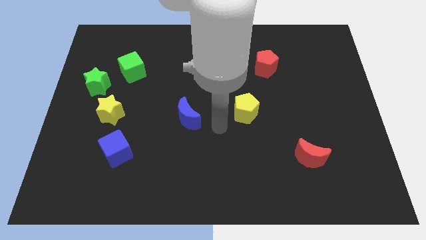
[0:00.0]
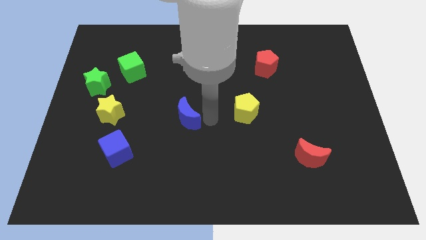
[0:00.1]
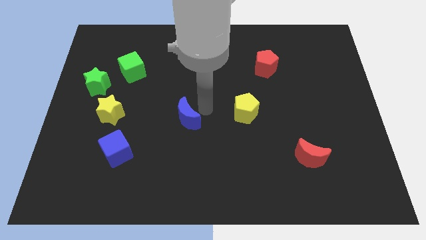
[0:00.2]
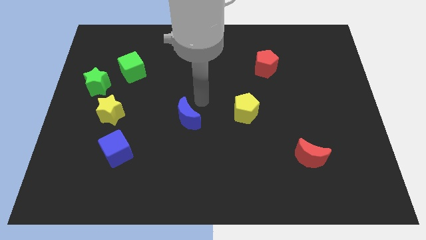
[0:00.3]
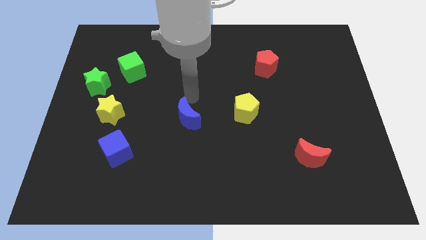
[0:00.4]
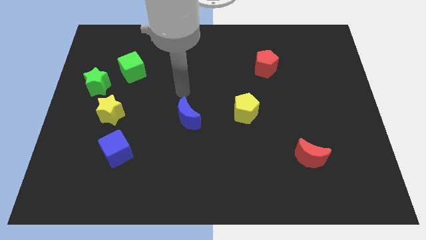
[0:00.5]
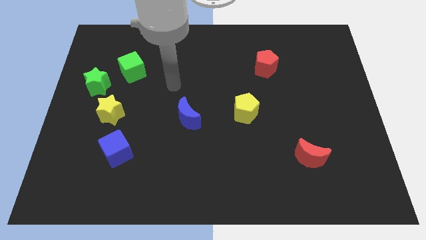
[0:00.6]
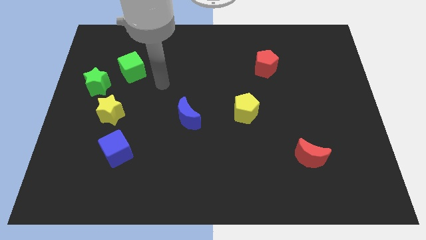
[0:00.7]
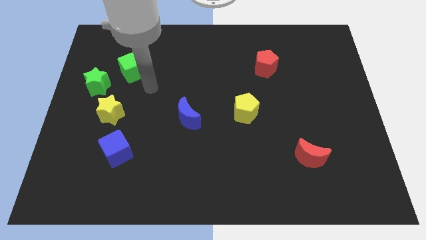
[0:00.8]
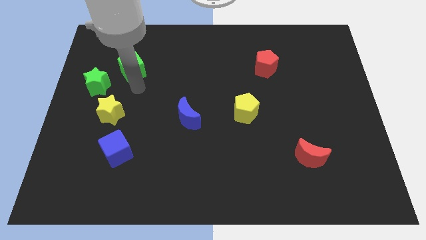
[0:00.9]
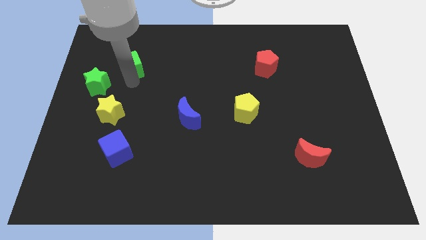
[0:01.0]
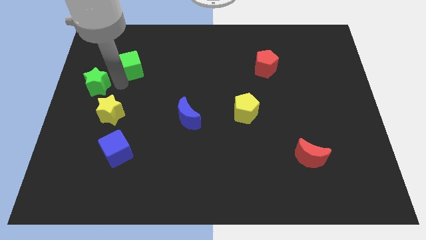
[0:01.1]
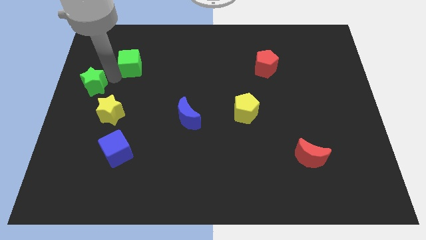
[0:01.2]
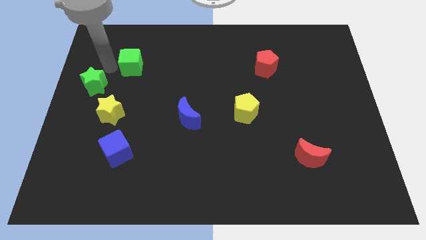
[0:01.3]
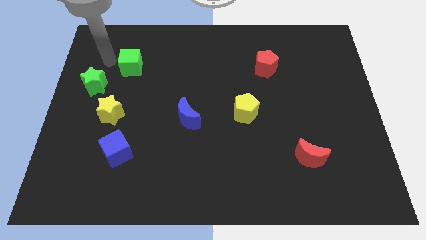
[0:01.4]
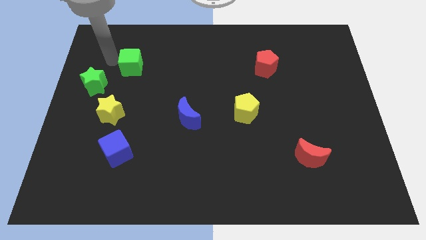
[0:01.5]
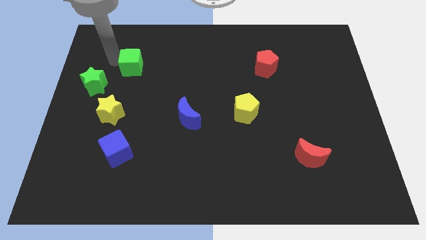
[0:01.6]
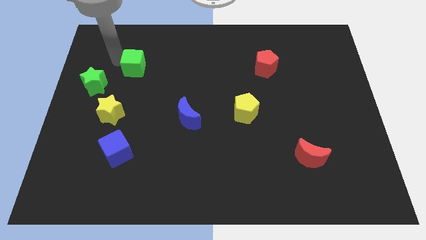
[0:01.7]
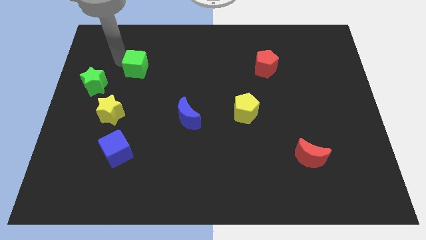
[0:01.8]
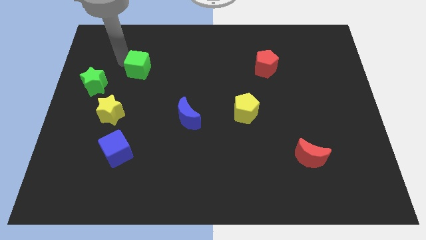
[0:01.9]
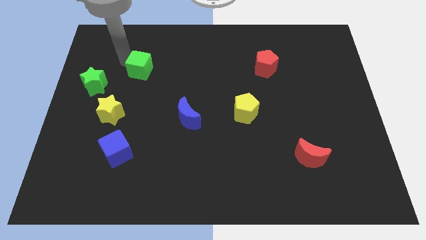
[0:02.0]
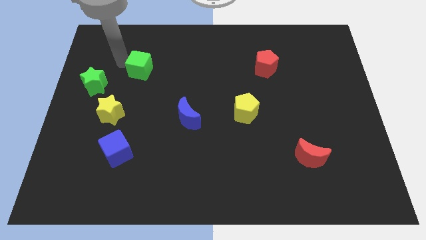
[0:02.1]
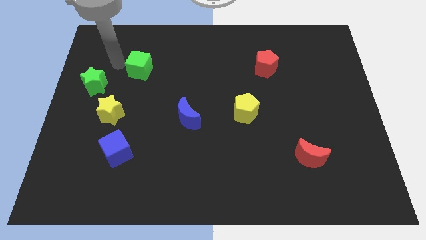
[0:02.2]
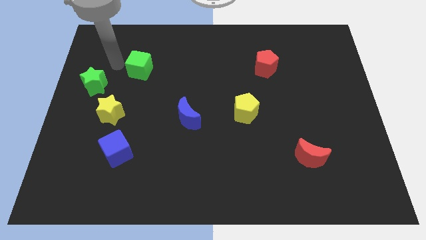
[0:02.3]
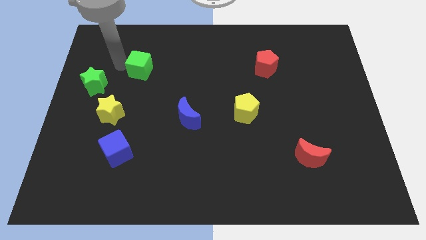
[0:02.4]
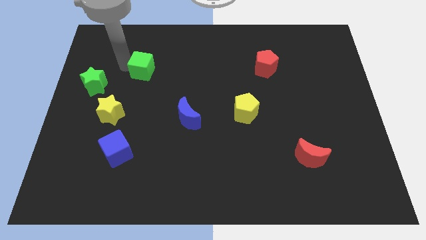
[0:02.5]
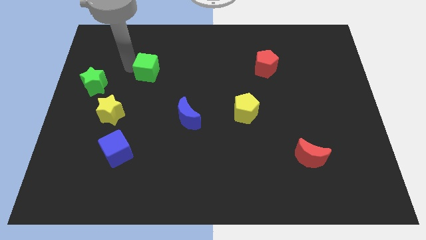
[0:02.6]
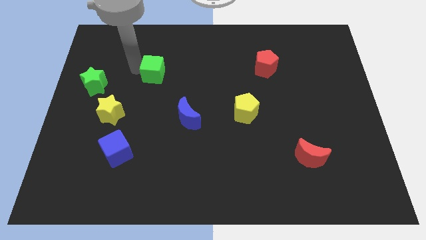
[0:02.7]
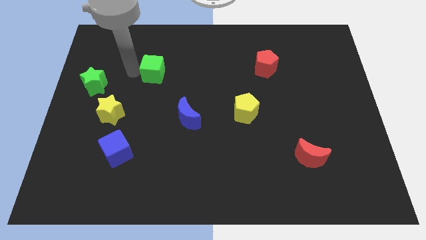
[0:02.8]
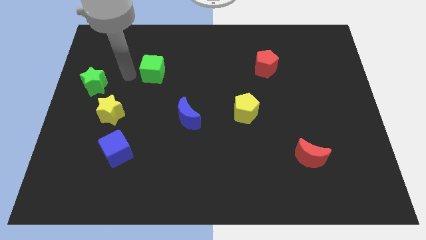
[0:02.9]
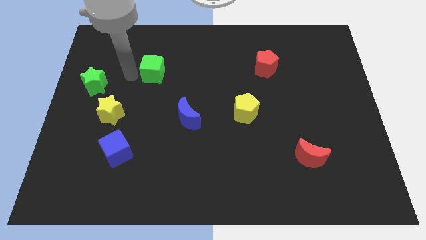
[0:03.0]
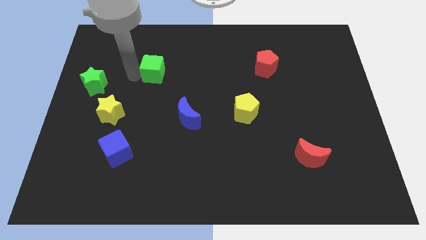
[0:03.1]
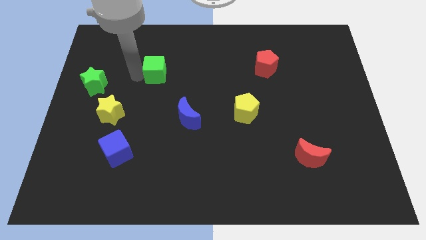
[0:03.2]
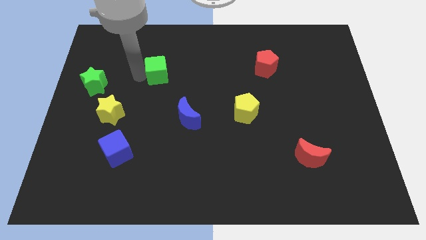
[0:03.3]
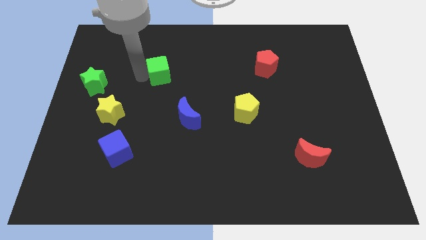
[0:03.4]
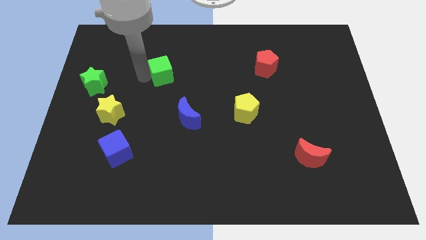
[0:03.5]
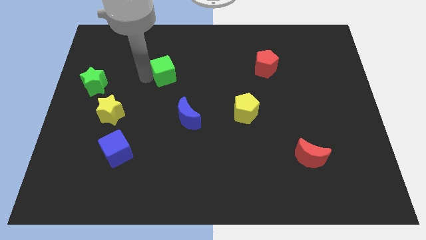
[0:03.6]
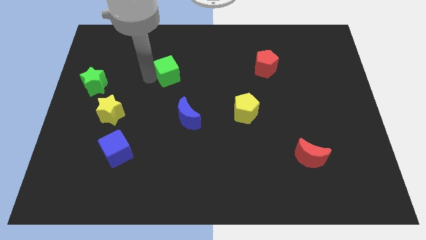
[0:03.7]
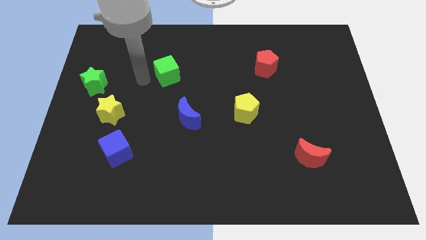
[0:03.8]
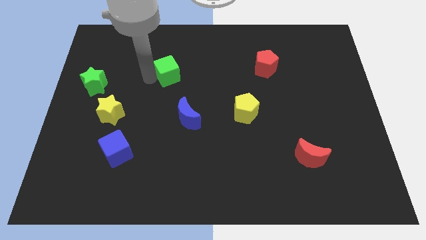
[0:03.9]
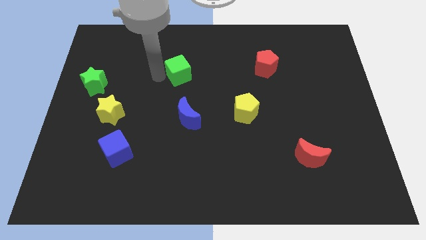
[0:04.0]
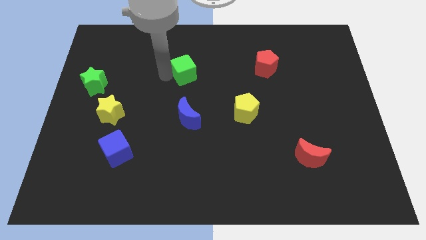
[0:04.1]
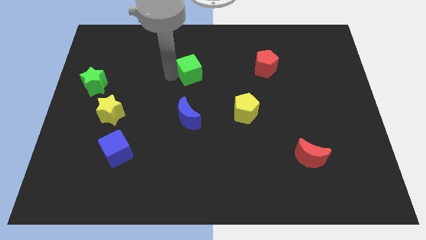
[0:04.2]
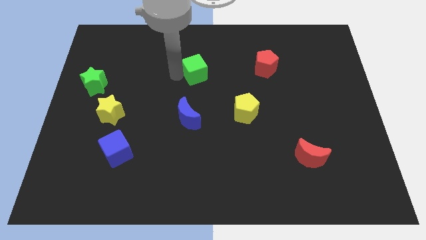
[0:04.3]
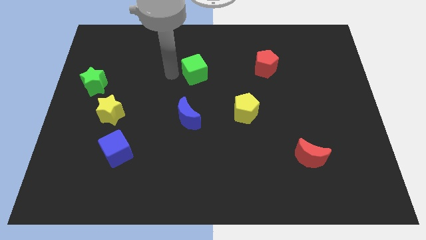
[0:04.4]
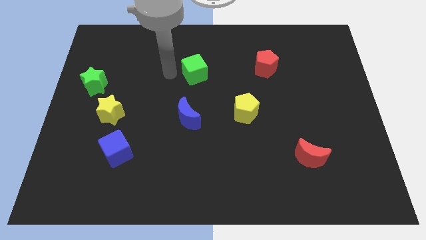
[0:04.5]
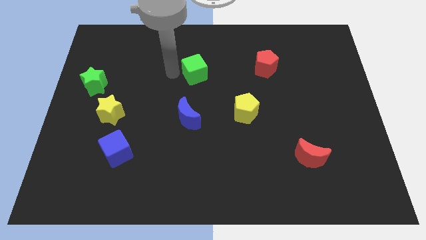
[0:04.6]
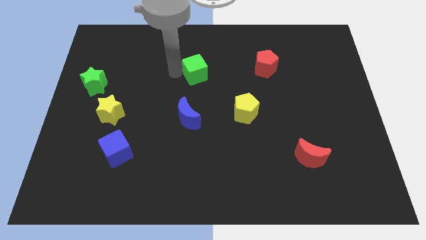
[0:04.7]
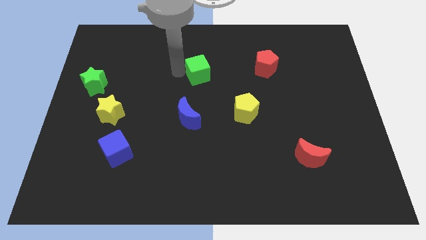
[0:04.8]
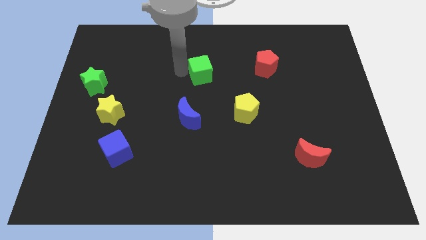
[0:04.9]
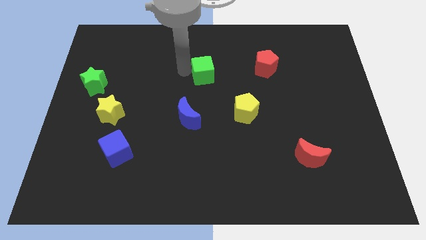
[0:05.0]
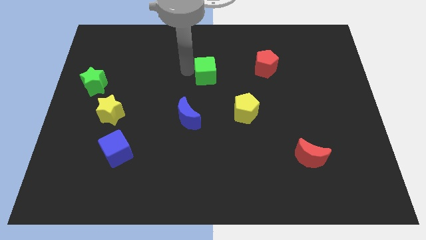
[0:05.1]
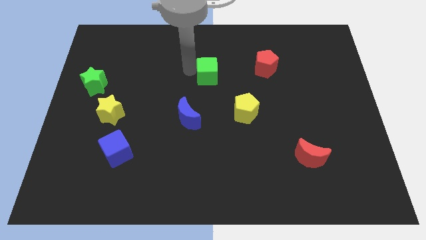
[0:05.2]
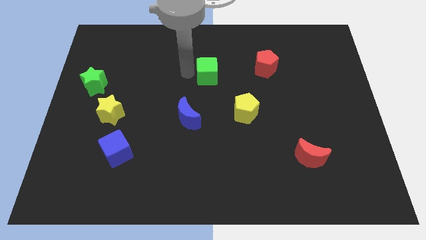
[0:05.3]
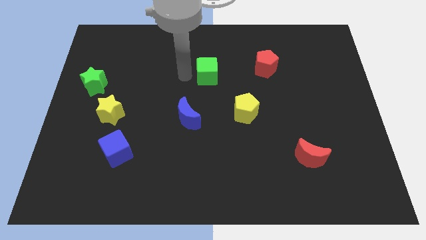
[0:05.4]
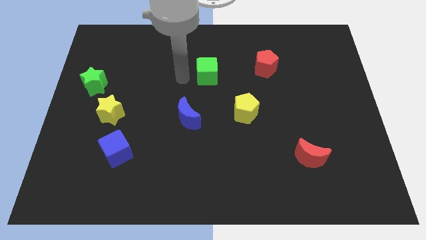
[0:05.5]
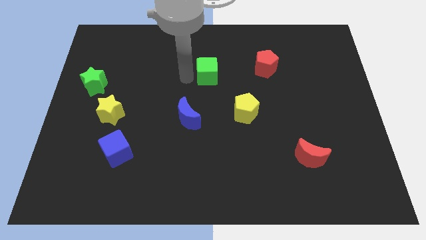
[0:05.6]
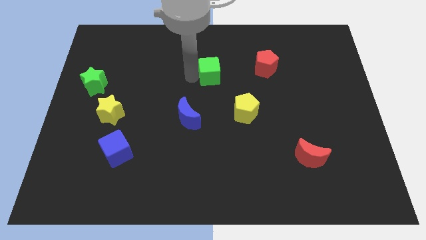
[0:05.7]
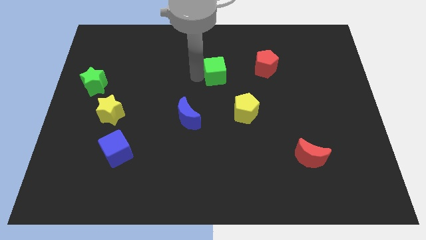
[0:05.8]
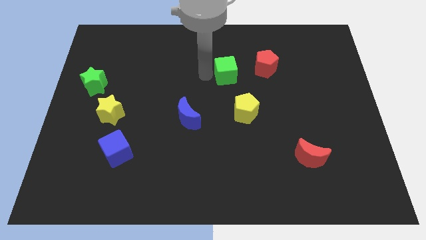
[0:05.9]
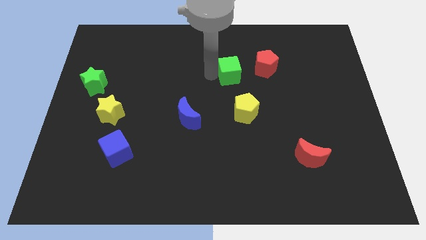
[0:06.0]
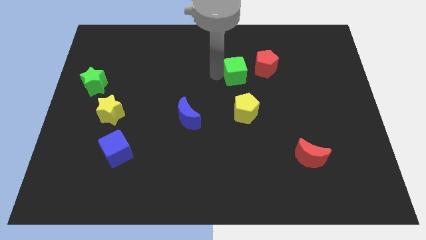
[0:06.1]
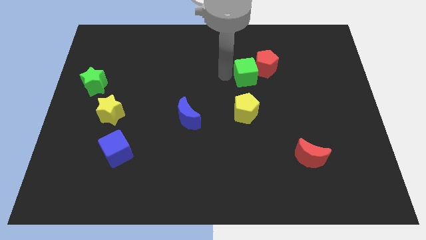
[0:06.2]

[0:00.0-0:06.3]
put the green cube close to the red pentagon

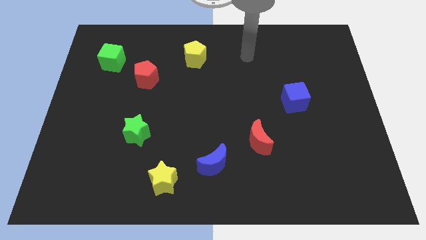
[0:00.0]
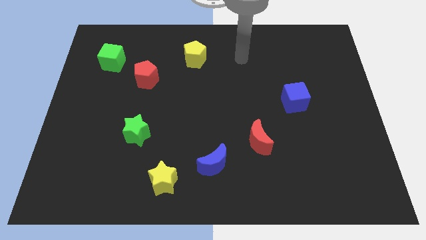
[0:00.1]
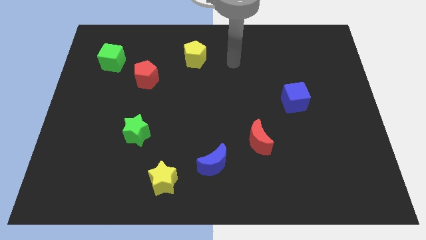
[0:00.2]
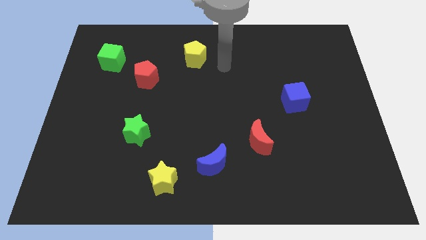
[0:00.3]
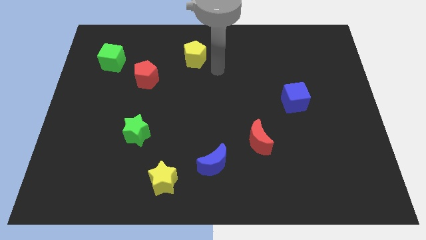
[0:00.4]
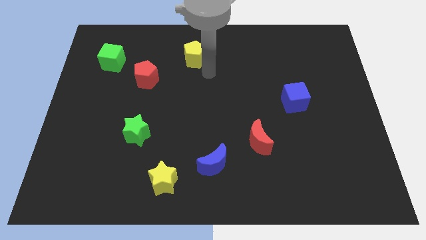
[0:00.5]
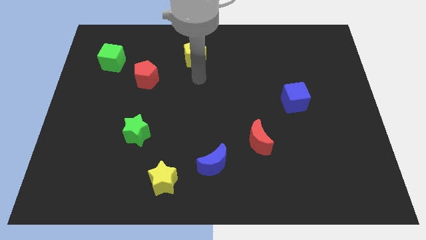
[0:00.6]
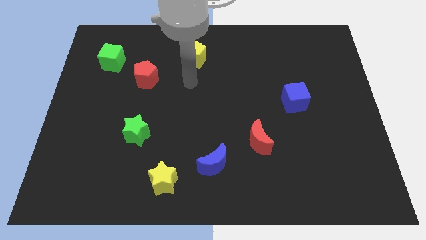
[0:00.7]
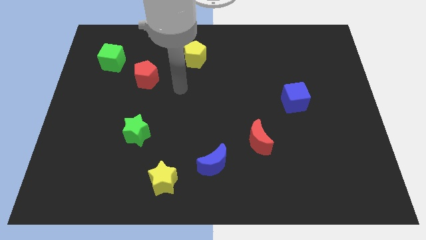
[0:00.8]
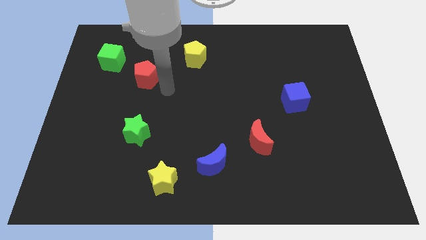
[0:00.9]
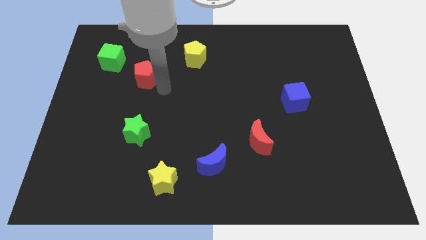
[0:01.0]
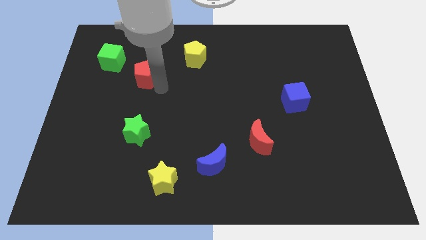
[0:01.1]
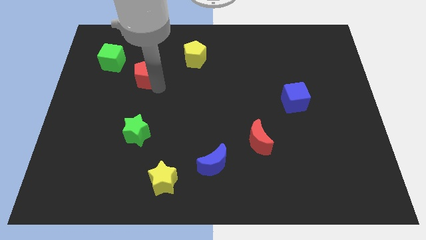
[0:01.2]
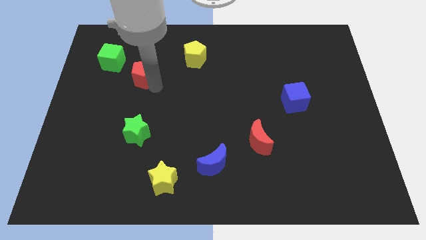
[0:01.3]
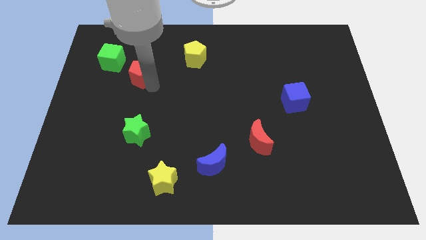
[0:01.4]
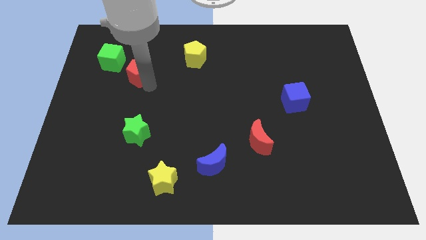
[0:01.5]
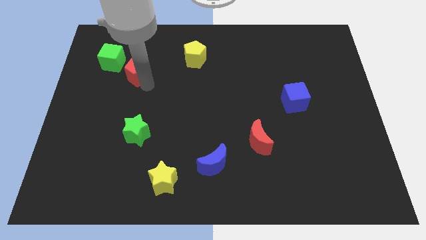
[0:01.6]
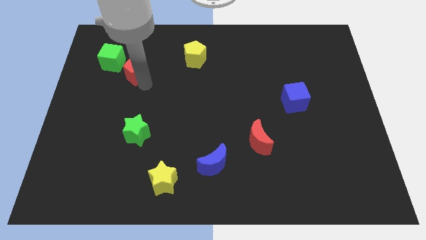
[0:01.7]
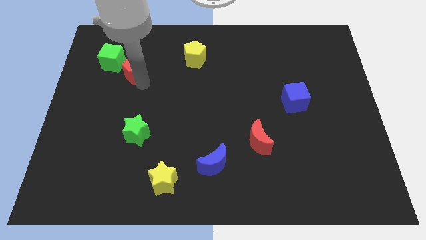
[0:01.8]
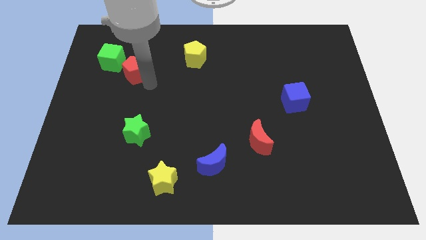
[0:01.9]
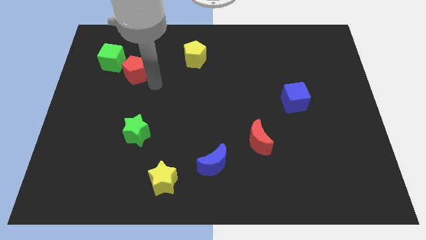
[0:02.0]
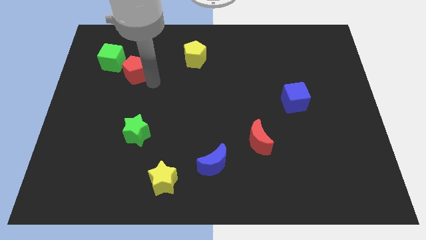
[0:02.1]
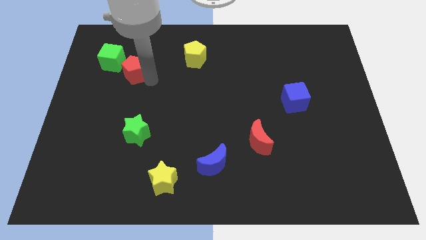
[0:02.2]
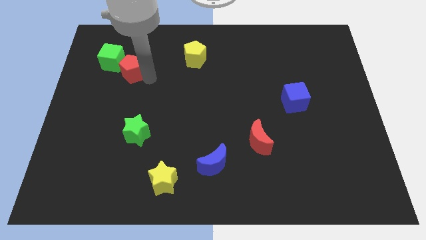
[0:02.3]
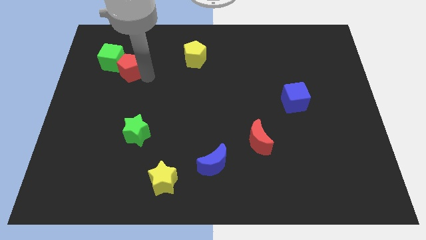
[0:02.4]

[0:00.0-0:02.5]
move the red pentagon towards the green cube
